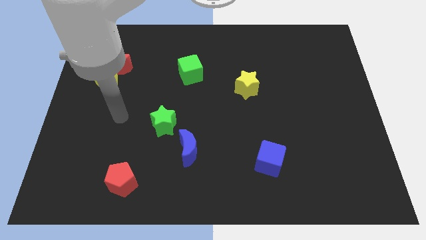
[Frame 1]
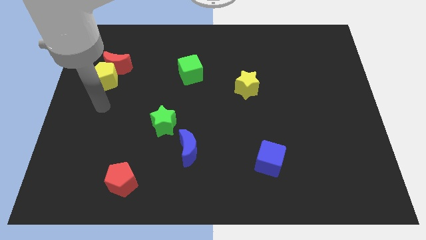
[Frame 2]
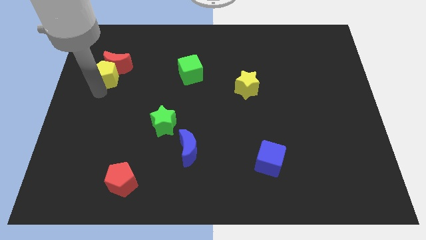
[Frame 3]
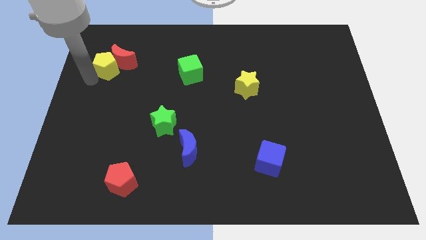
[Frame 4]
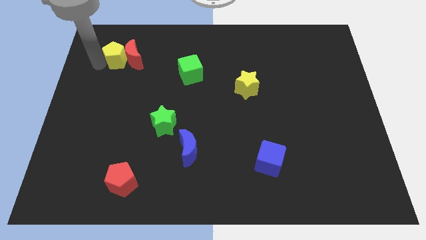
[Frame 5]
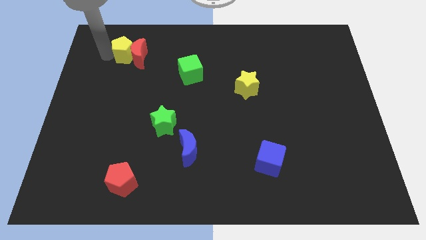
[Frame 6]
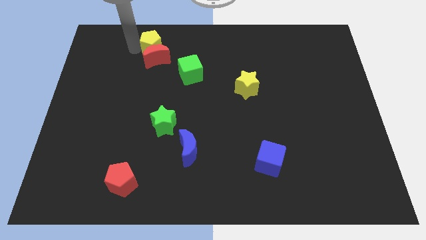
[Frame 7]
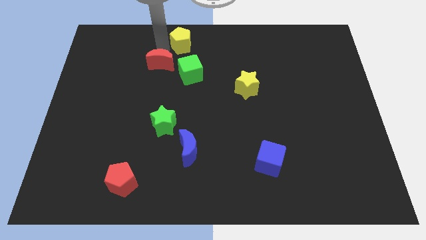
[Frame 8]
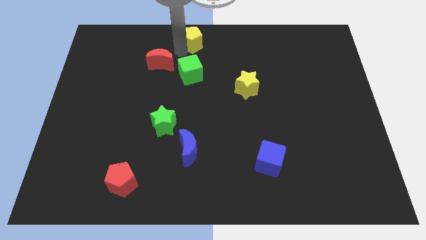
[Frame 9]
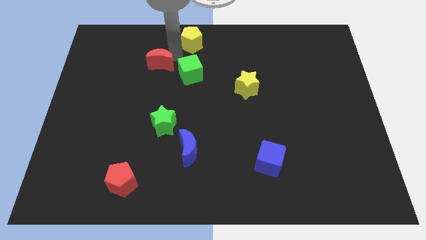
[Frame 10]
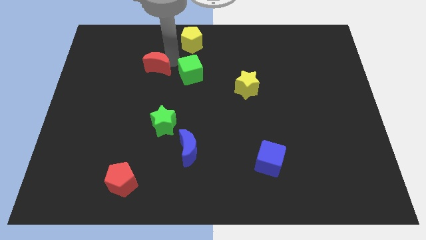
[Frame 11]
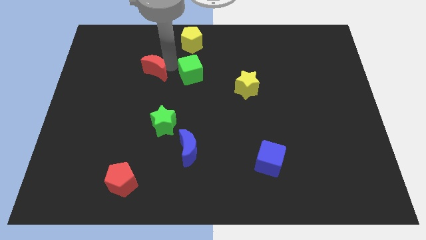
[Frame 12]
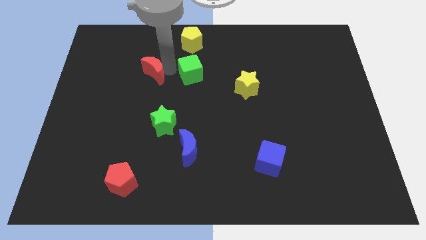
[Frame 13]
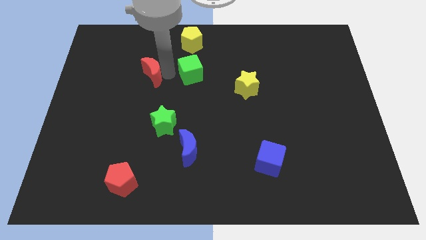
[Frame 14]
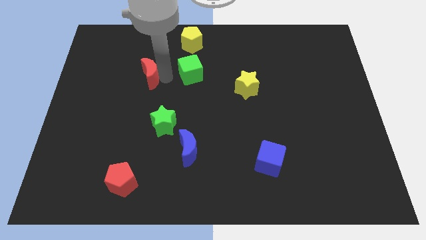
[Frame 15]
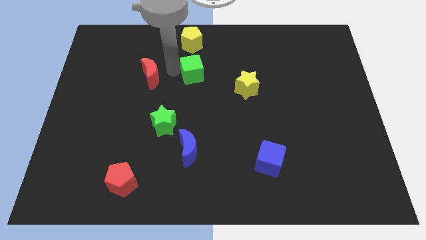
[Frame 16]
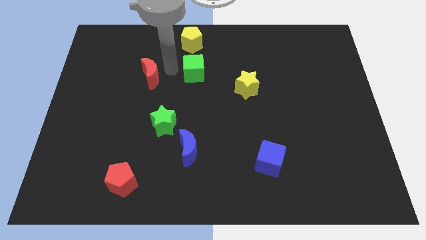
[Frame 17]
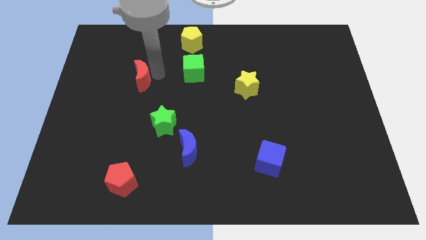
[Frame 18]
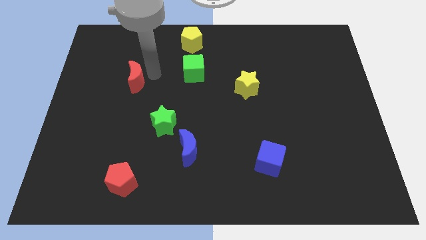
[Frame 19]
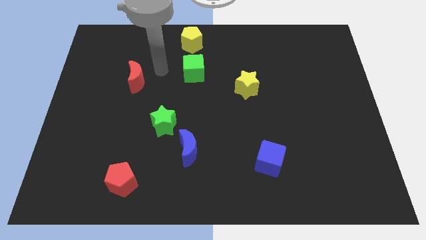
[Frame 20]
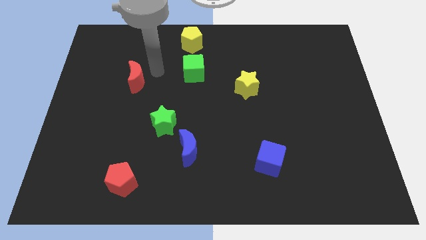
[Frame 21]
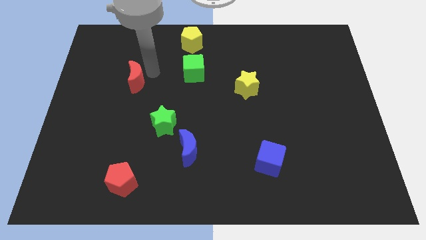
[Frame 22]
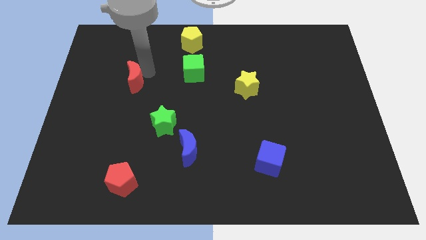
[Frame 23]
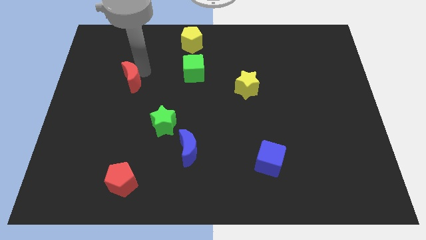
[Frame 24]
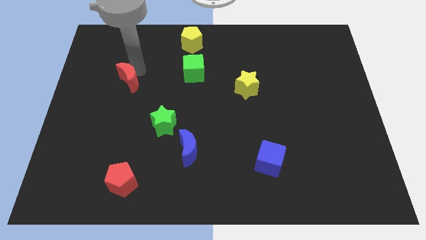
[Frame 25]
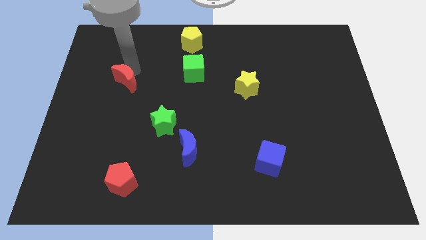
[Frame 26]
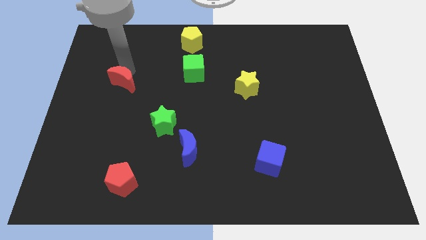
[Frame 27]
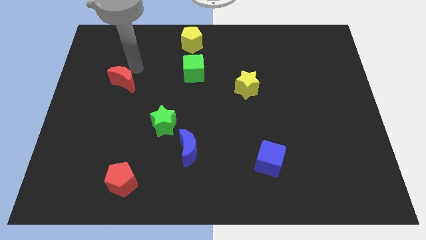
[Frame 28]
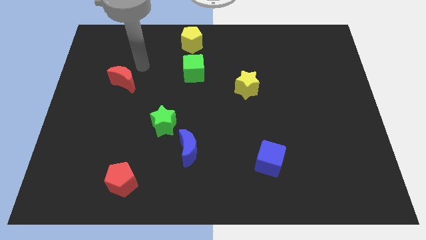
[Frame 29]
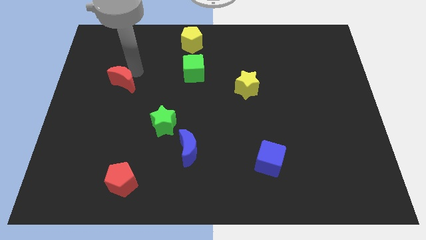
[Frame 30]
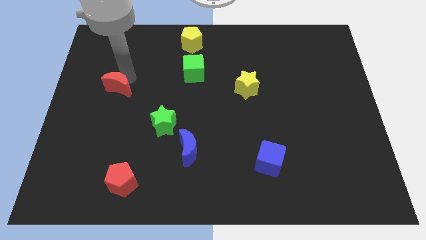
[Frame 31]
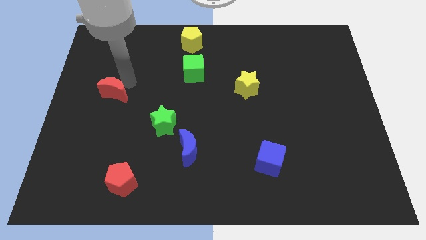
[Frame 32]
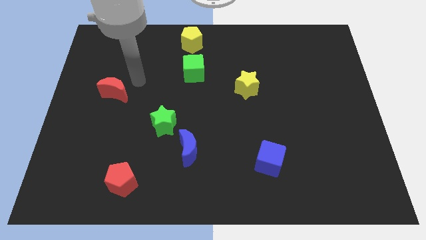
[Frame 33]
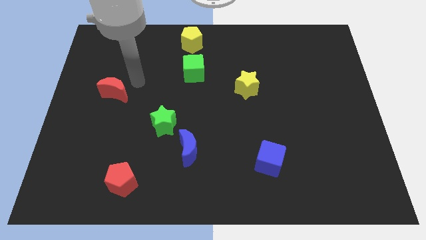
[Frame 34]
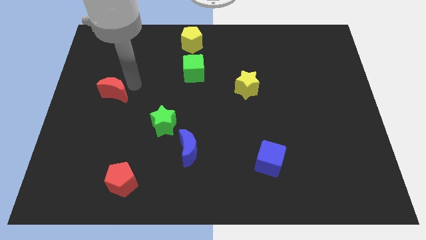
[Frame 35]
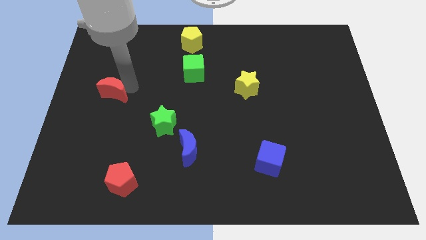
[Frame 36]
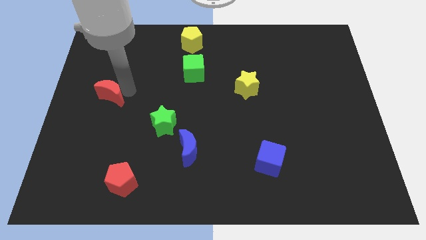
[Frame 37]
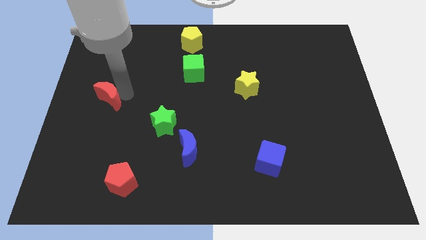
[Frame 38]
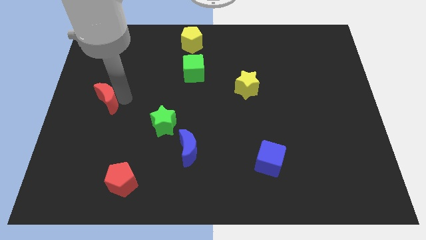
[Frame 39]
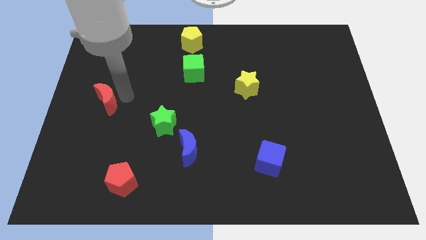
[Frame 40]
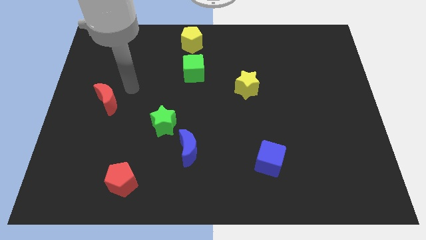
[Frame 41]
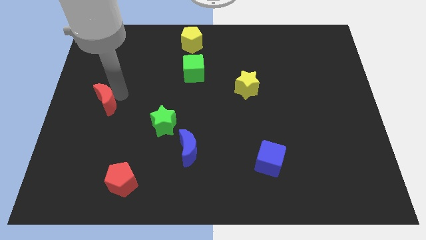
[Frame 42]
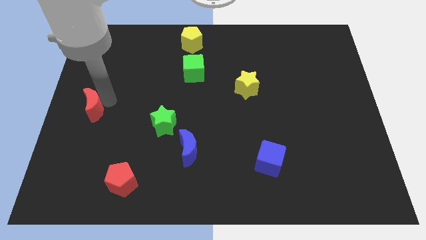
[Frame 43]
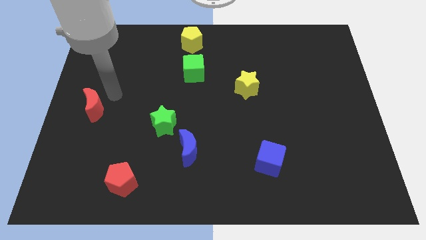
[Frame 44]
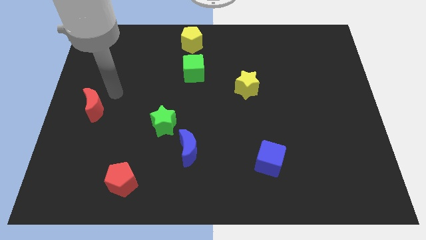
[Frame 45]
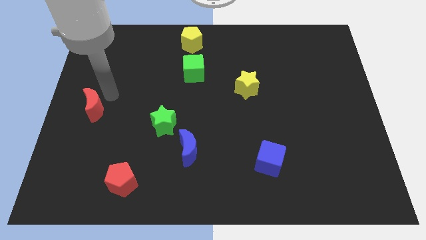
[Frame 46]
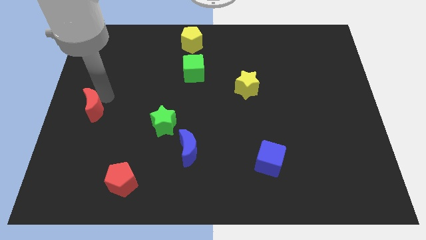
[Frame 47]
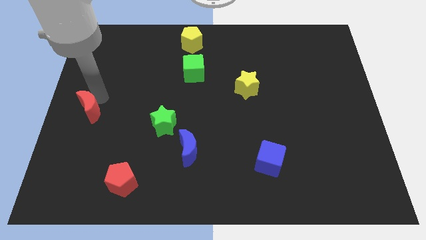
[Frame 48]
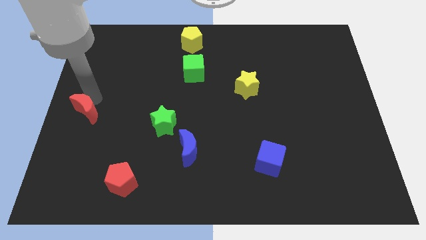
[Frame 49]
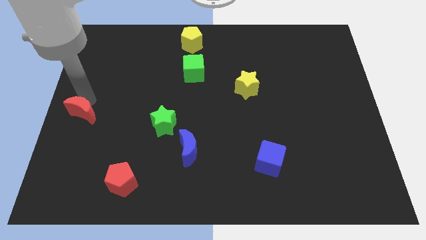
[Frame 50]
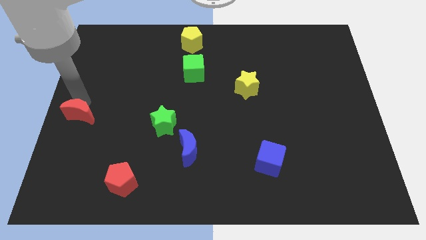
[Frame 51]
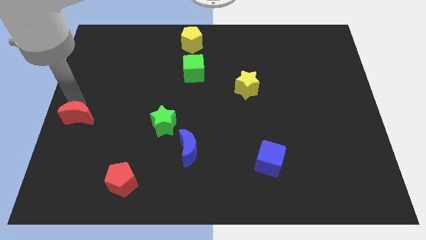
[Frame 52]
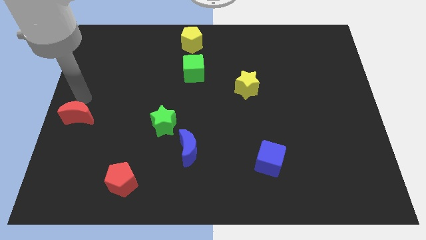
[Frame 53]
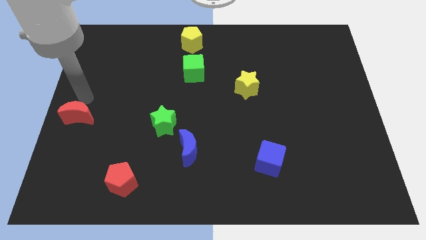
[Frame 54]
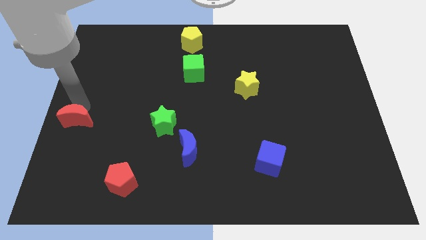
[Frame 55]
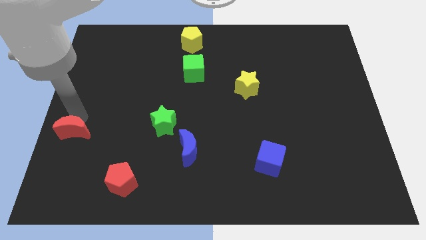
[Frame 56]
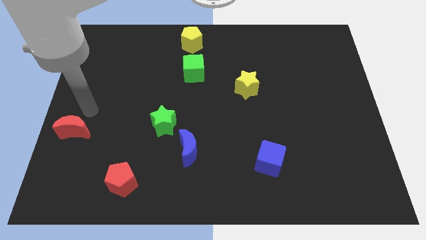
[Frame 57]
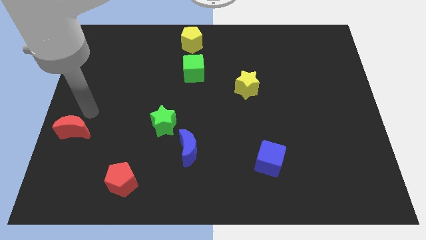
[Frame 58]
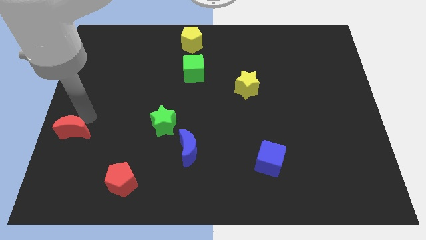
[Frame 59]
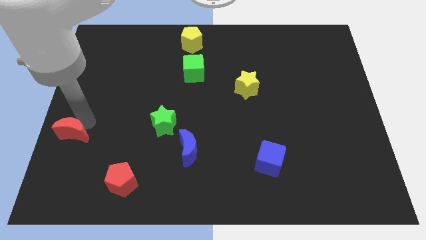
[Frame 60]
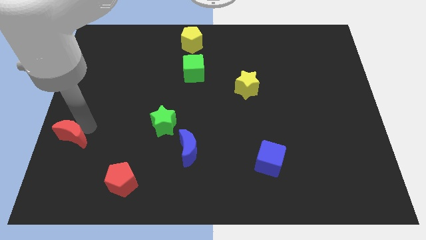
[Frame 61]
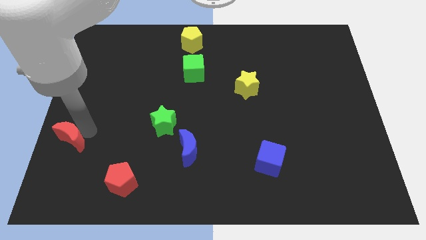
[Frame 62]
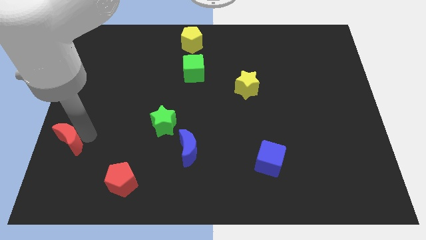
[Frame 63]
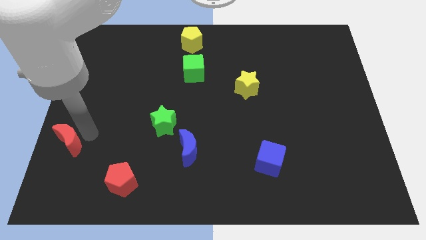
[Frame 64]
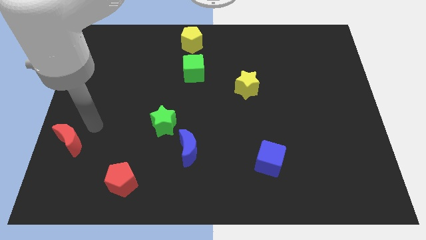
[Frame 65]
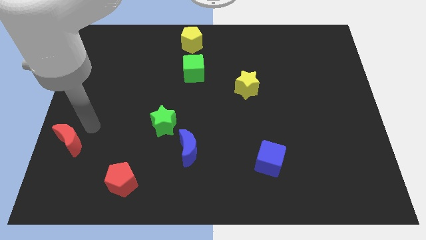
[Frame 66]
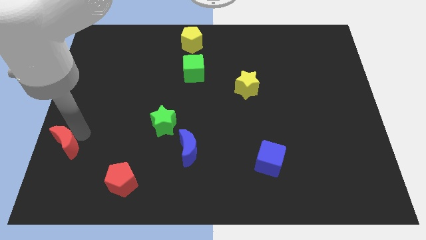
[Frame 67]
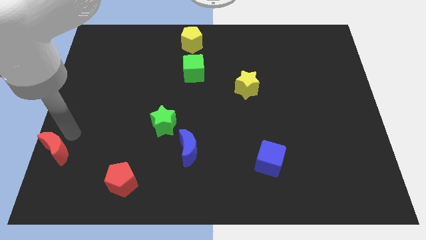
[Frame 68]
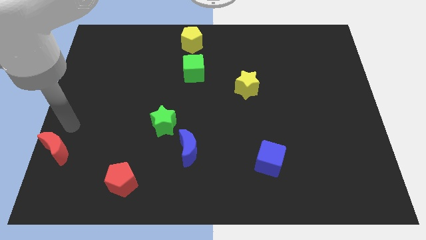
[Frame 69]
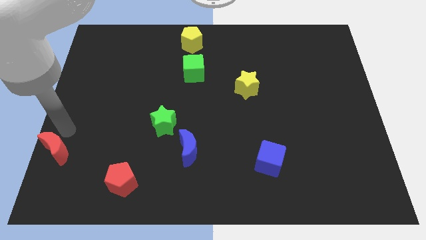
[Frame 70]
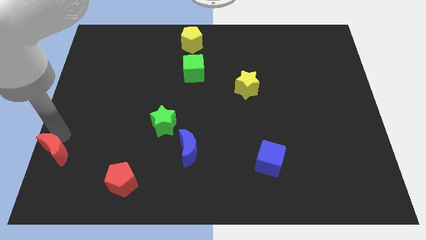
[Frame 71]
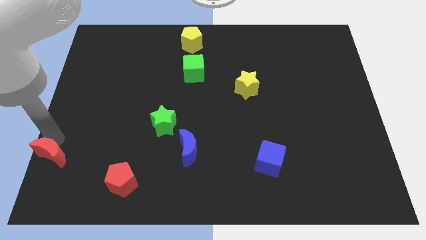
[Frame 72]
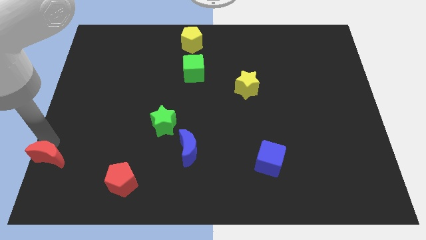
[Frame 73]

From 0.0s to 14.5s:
put the red moon to the lower left corner
